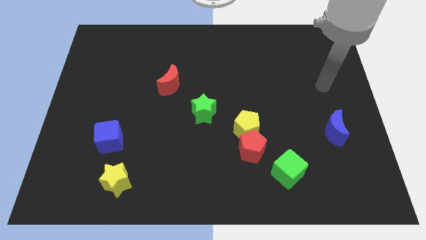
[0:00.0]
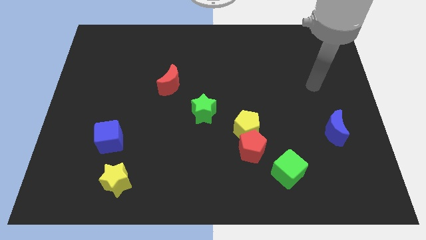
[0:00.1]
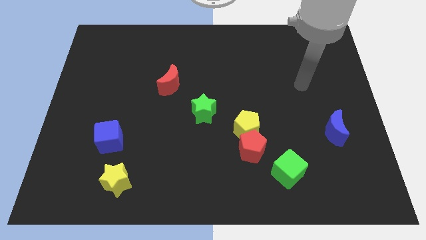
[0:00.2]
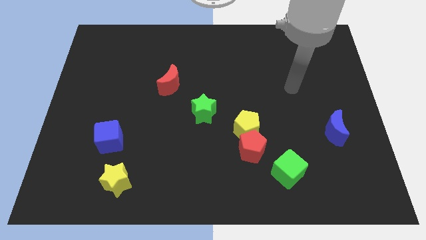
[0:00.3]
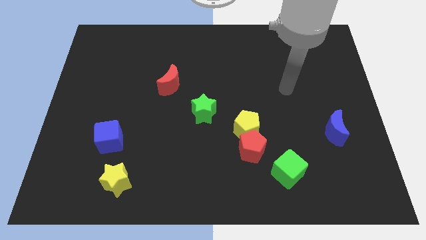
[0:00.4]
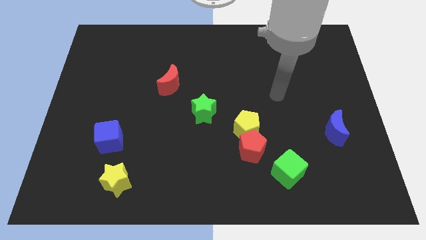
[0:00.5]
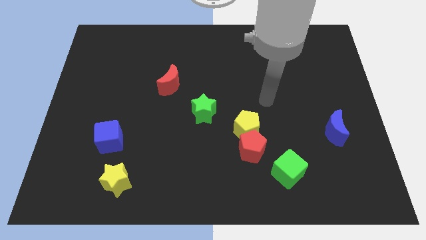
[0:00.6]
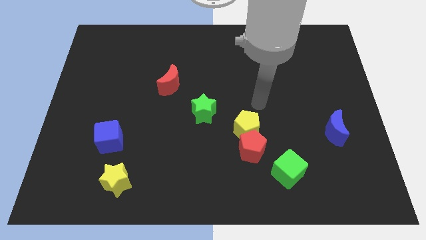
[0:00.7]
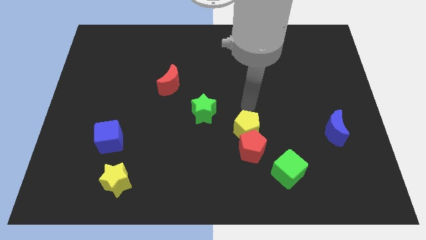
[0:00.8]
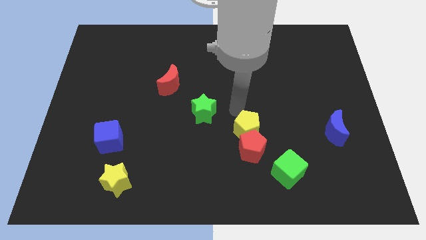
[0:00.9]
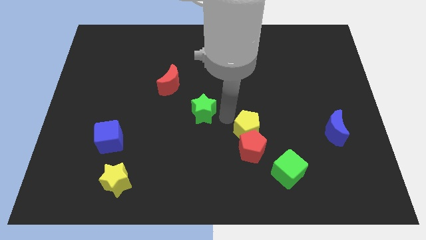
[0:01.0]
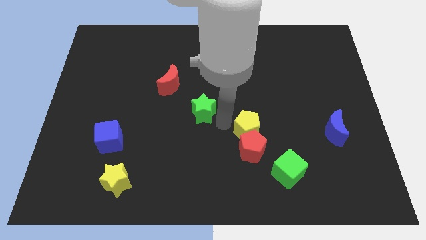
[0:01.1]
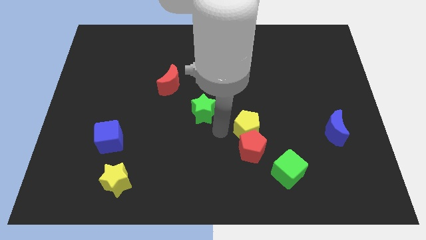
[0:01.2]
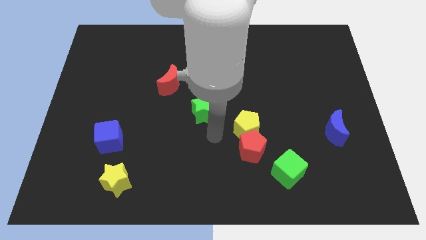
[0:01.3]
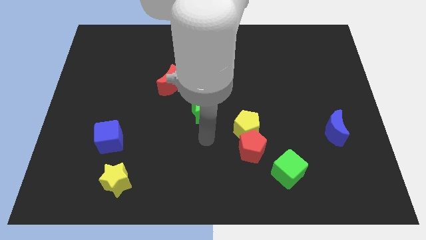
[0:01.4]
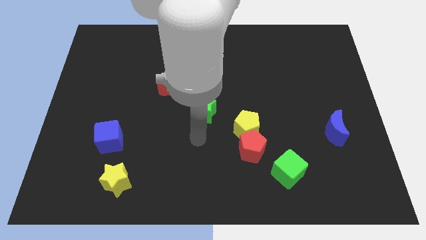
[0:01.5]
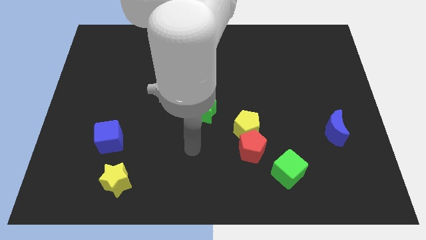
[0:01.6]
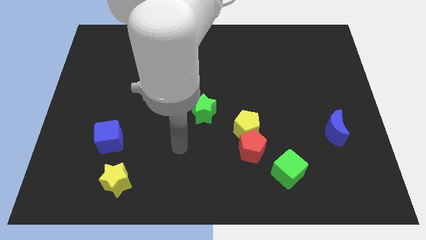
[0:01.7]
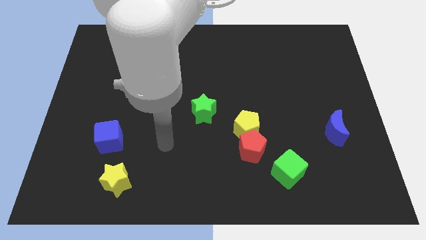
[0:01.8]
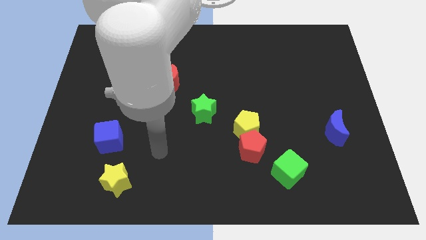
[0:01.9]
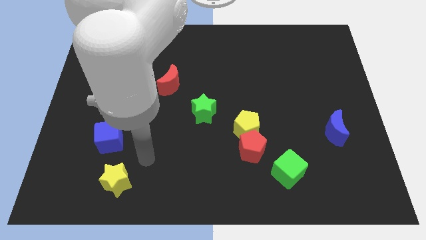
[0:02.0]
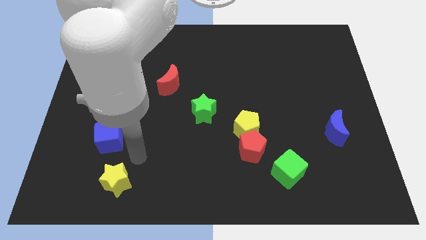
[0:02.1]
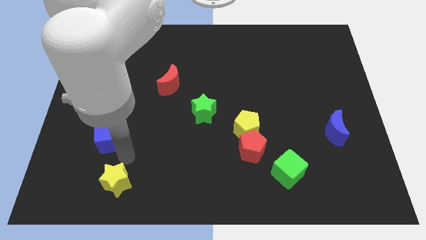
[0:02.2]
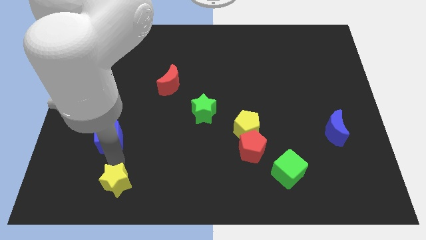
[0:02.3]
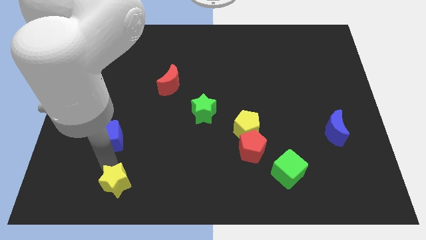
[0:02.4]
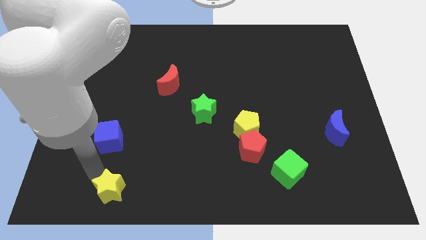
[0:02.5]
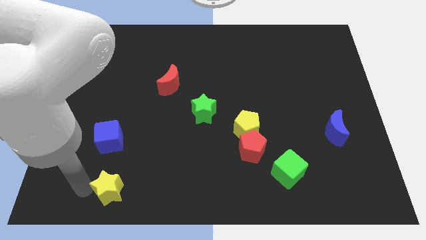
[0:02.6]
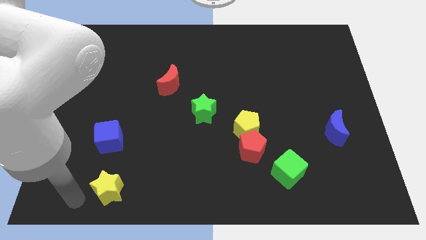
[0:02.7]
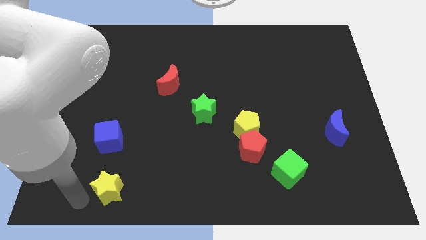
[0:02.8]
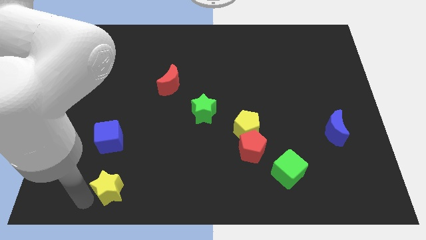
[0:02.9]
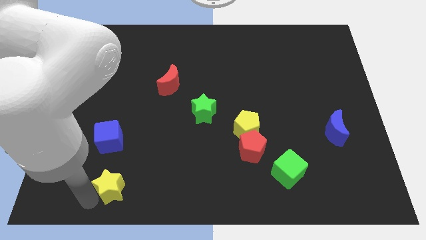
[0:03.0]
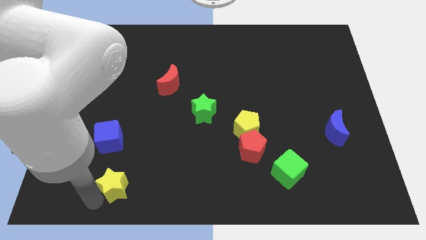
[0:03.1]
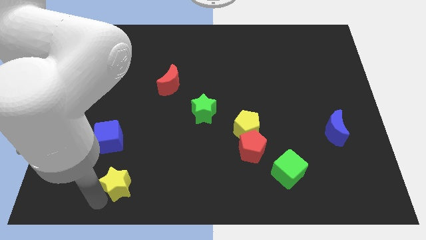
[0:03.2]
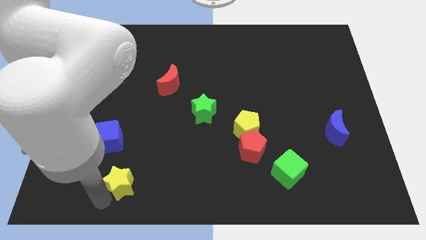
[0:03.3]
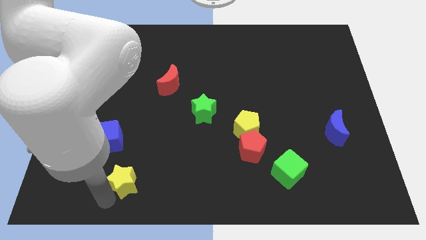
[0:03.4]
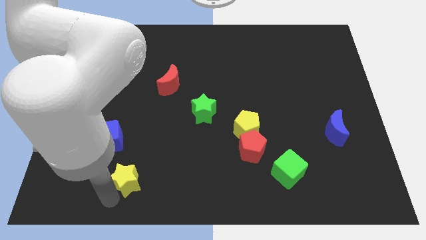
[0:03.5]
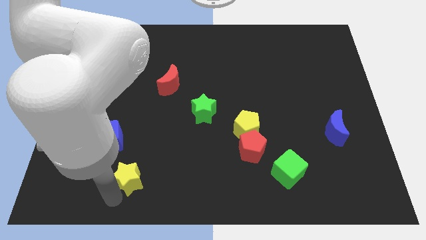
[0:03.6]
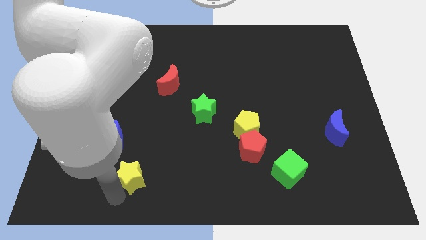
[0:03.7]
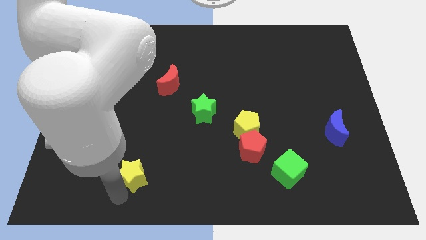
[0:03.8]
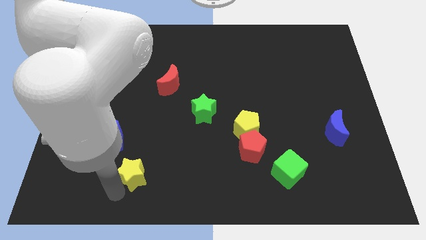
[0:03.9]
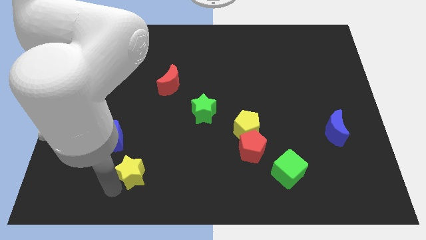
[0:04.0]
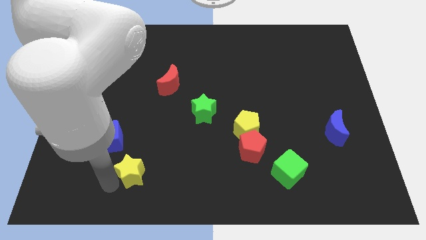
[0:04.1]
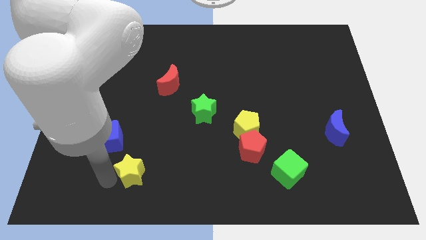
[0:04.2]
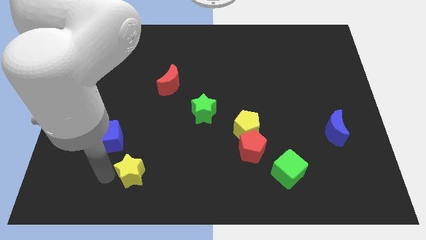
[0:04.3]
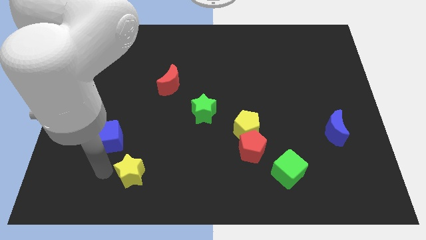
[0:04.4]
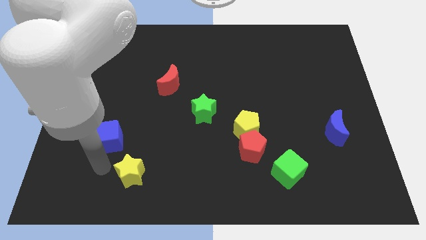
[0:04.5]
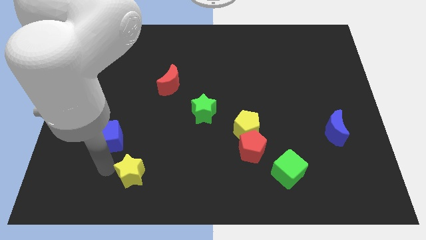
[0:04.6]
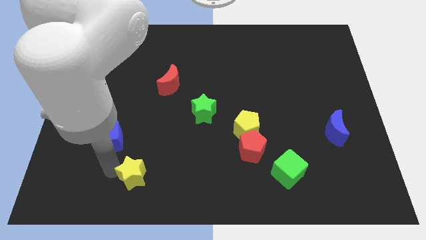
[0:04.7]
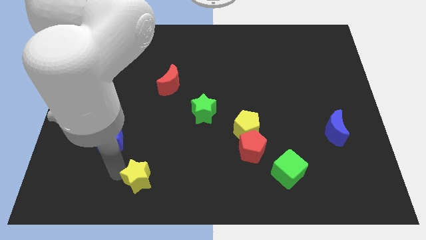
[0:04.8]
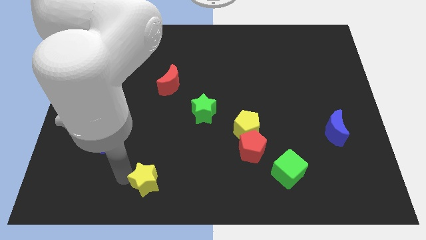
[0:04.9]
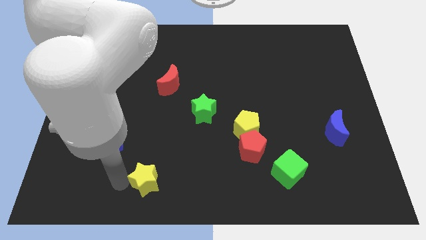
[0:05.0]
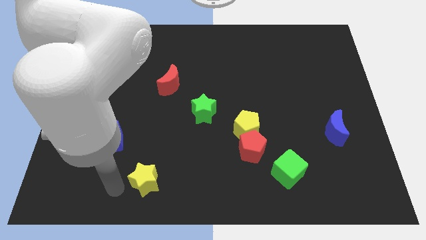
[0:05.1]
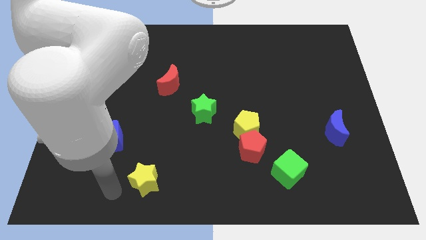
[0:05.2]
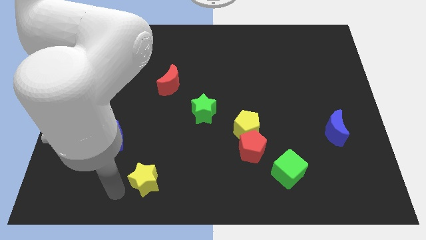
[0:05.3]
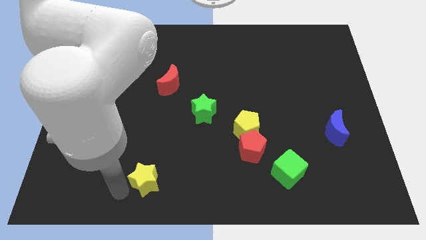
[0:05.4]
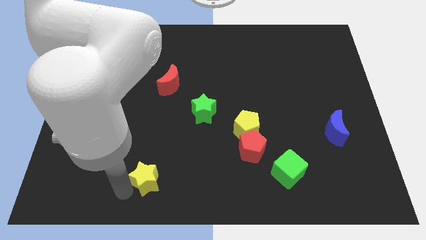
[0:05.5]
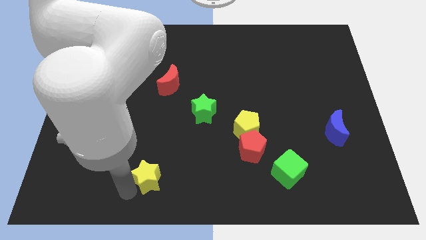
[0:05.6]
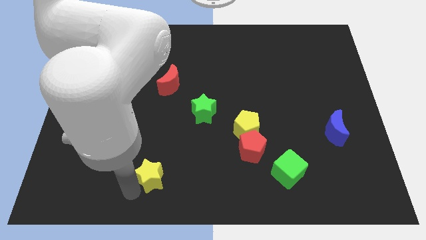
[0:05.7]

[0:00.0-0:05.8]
push the yellow star somewhat to the right

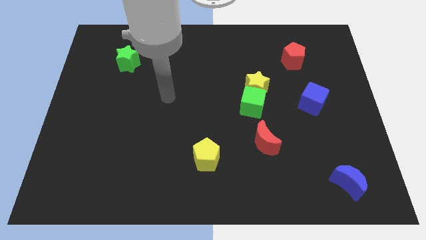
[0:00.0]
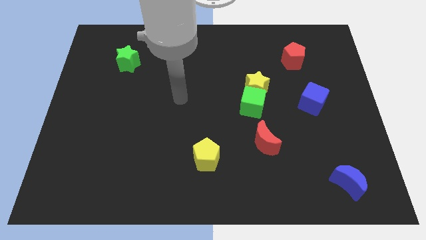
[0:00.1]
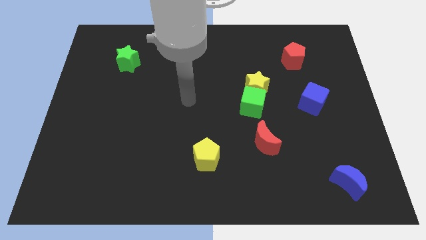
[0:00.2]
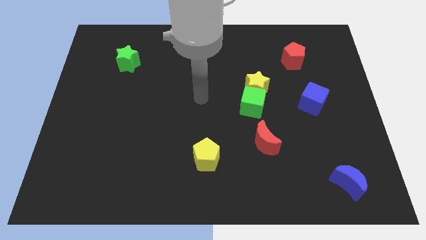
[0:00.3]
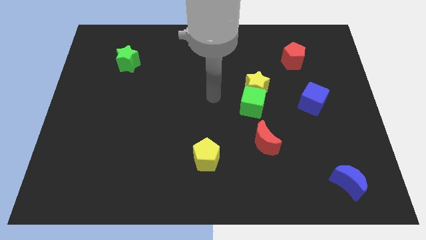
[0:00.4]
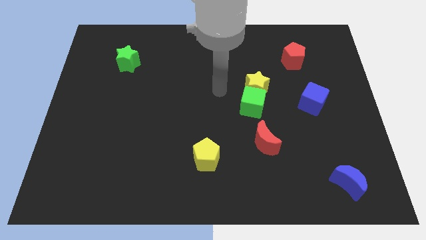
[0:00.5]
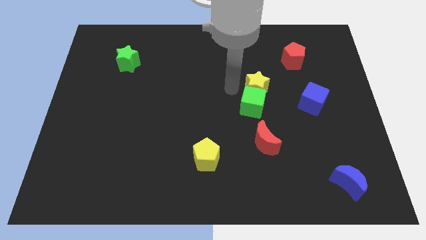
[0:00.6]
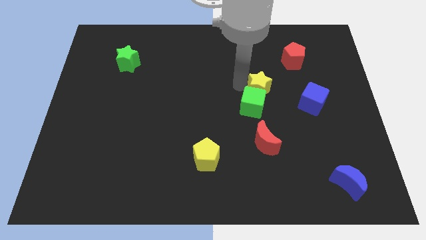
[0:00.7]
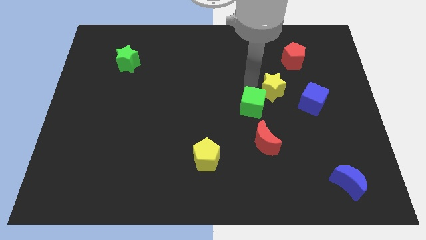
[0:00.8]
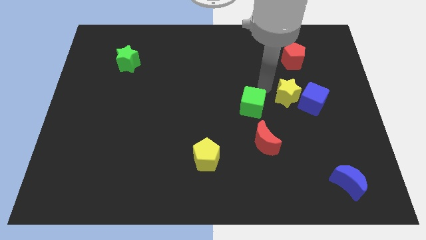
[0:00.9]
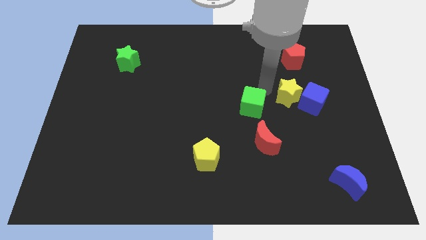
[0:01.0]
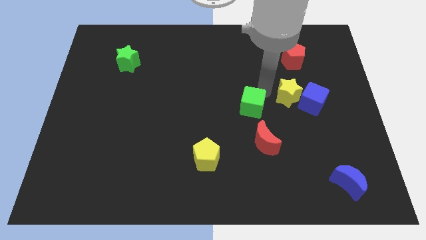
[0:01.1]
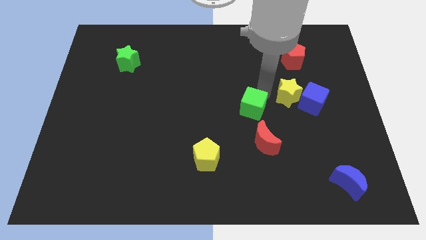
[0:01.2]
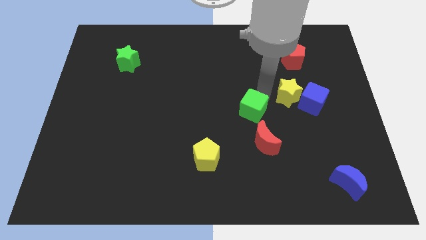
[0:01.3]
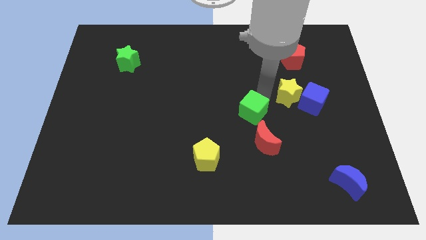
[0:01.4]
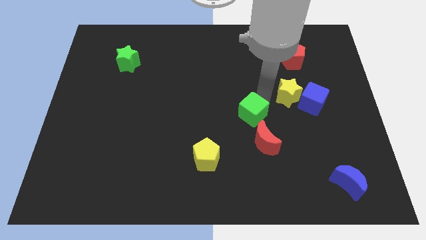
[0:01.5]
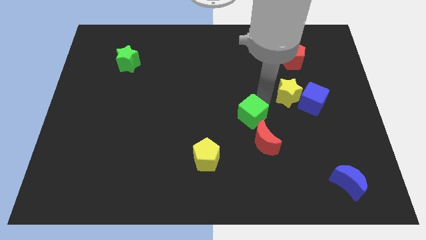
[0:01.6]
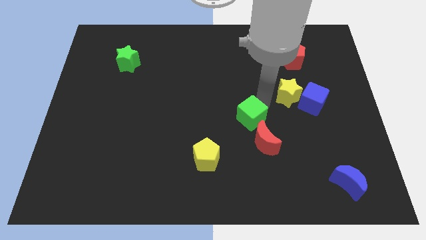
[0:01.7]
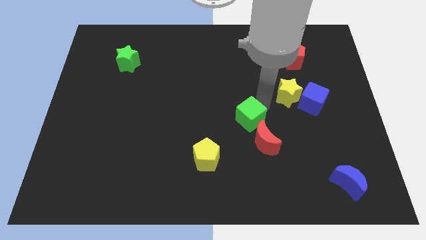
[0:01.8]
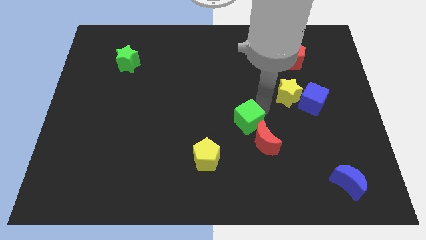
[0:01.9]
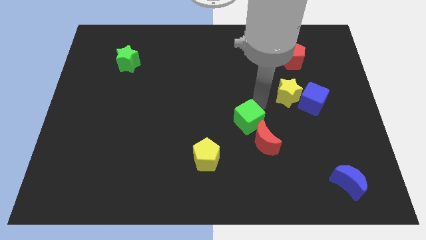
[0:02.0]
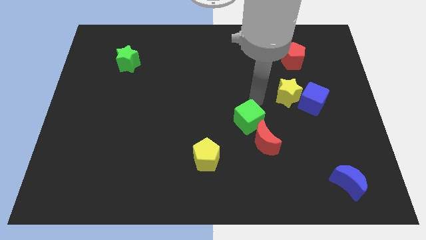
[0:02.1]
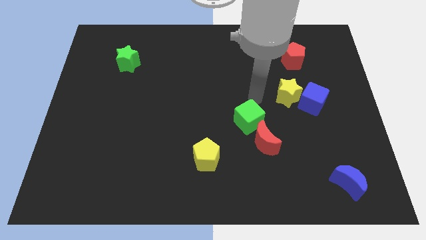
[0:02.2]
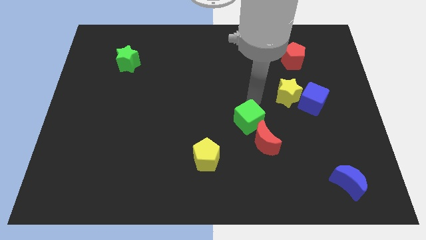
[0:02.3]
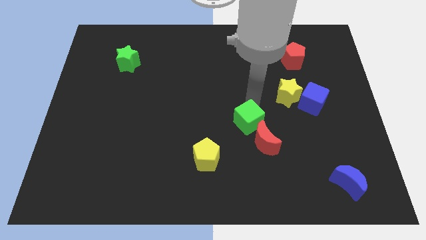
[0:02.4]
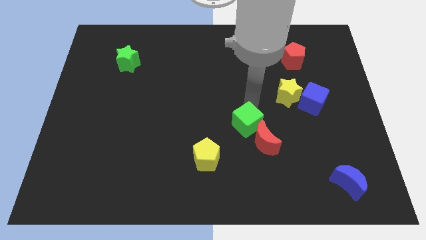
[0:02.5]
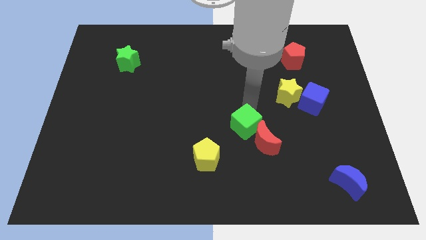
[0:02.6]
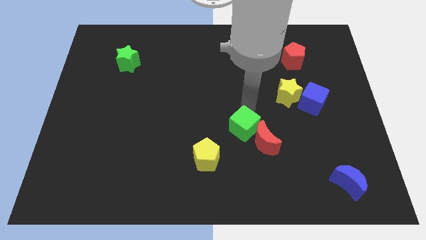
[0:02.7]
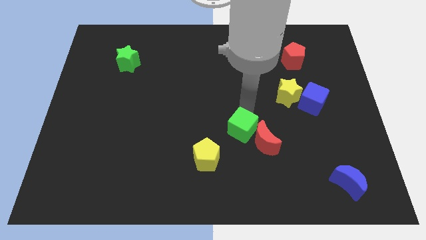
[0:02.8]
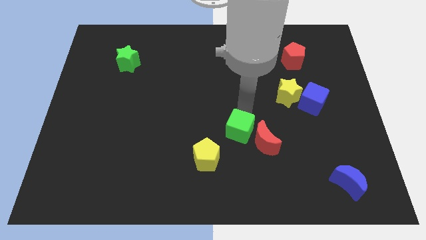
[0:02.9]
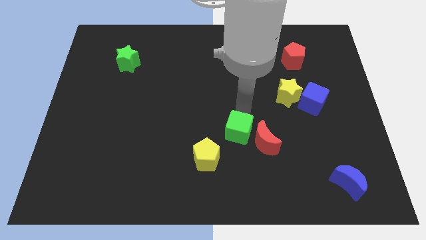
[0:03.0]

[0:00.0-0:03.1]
move the green cube somewhat down
